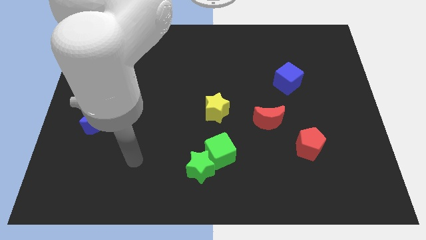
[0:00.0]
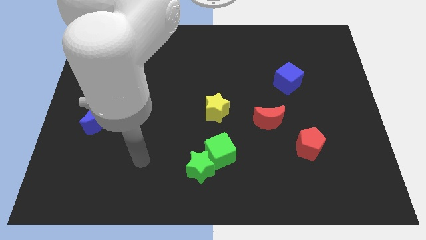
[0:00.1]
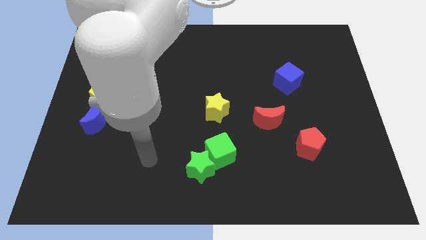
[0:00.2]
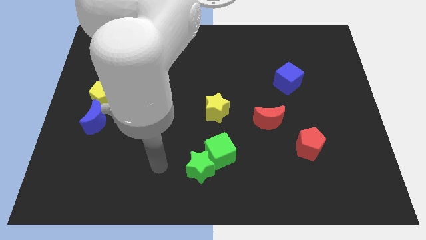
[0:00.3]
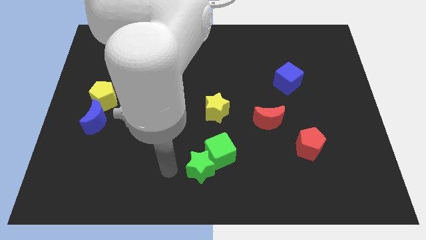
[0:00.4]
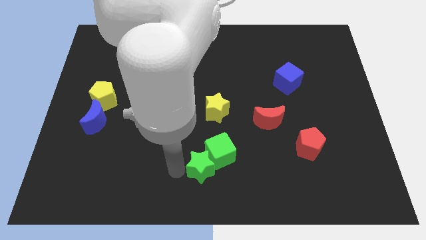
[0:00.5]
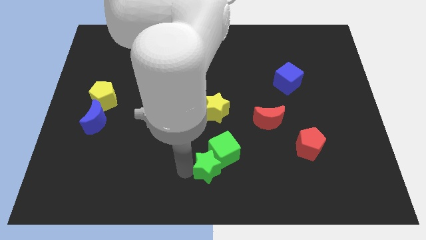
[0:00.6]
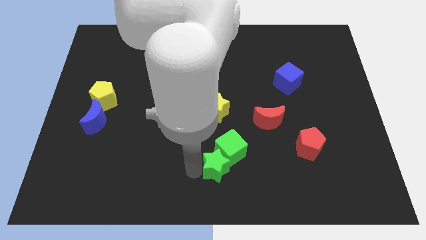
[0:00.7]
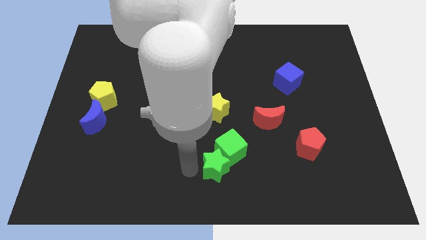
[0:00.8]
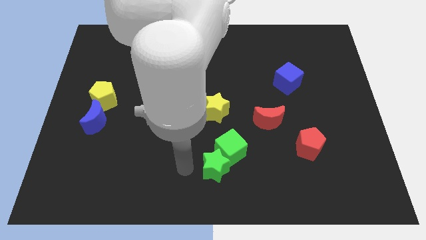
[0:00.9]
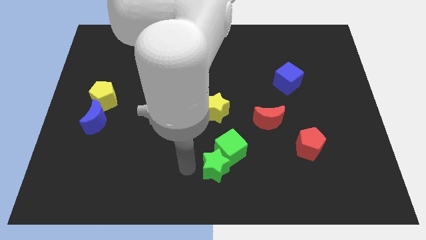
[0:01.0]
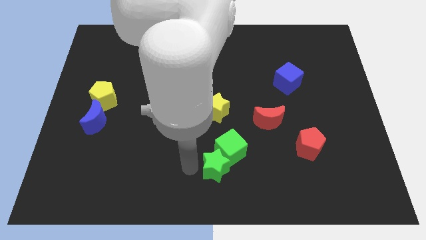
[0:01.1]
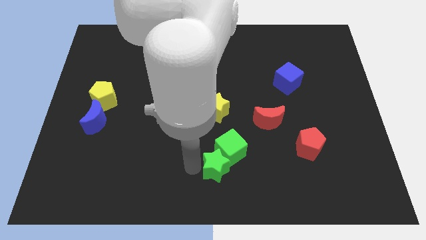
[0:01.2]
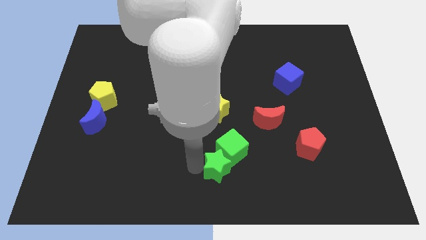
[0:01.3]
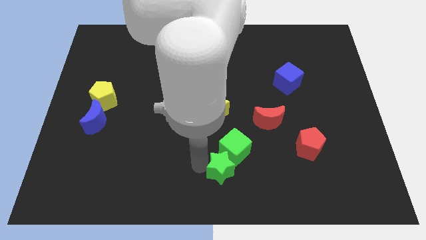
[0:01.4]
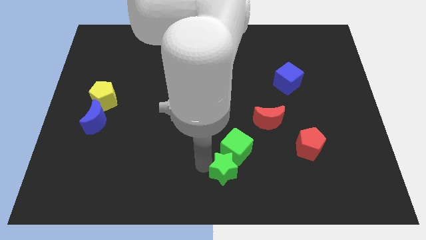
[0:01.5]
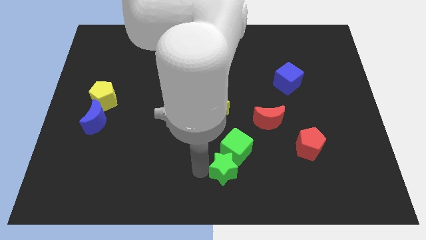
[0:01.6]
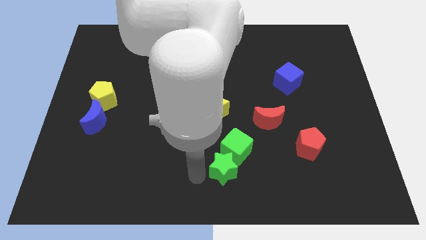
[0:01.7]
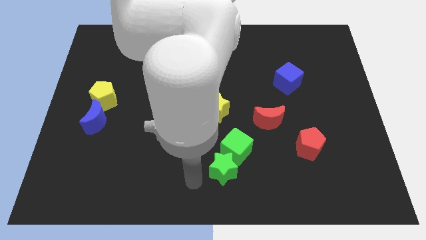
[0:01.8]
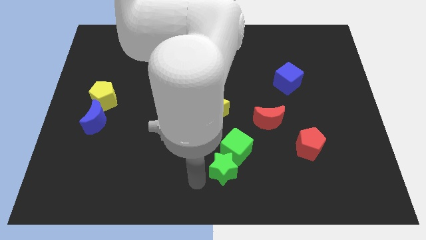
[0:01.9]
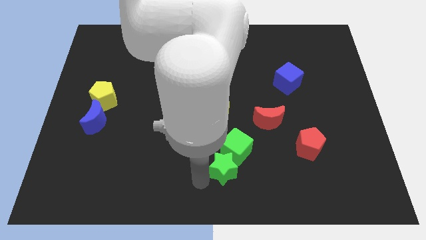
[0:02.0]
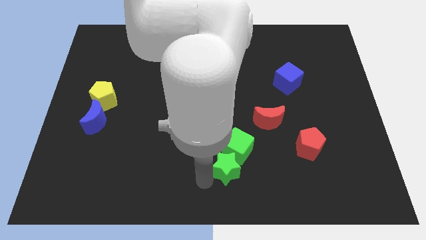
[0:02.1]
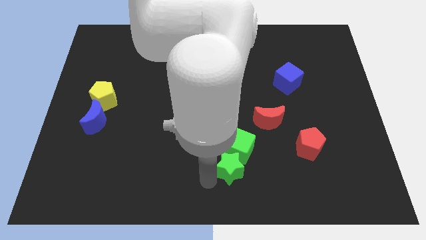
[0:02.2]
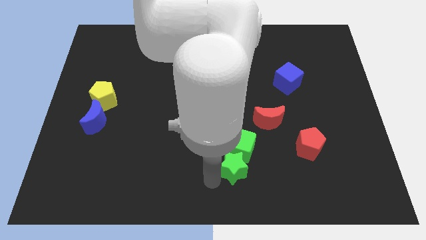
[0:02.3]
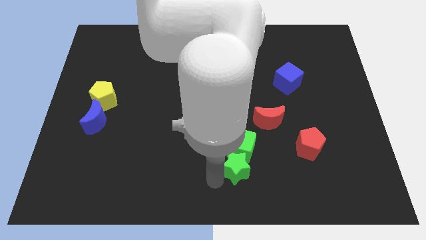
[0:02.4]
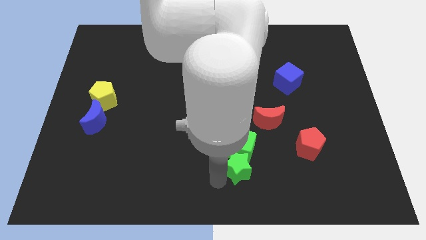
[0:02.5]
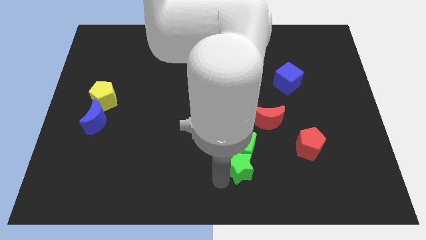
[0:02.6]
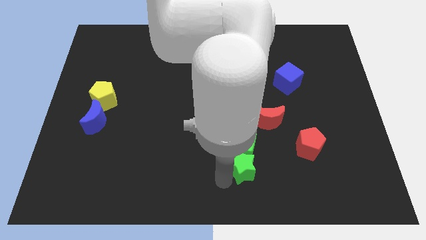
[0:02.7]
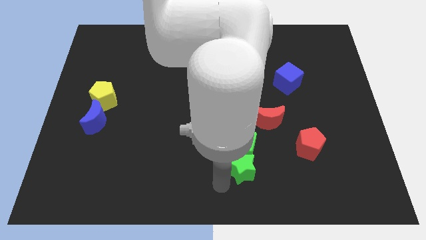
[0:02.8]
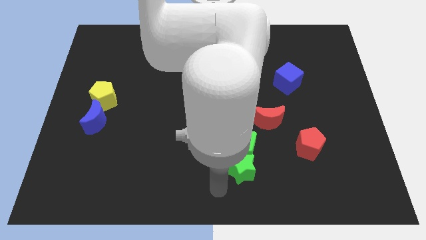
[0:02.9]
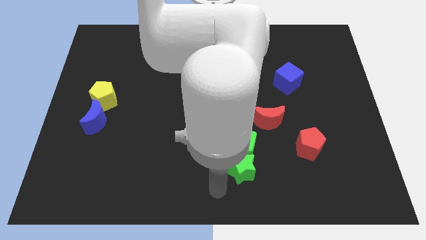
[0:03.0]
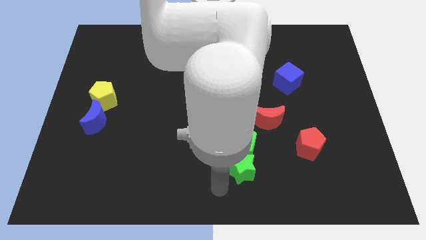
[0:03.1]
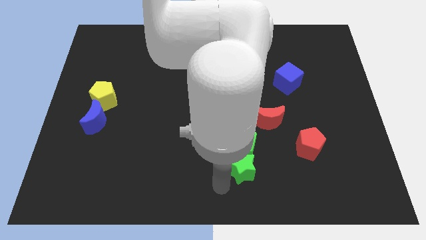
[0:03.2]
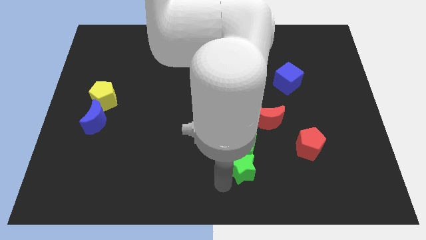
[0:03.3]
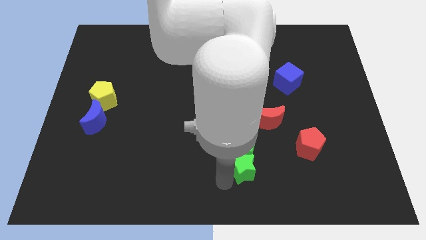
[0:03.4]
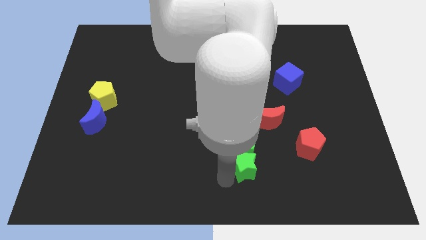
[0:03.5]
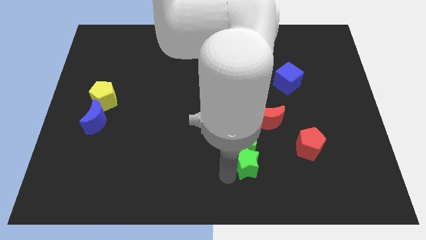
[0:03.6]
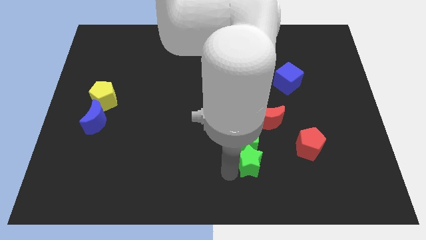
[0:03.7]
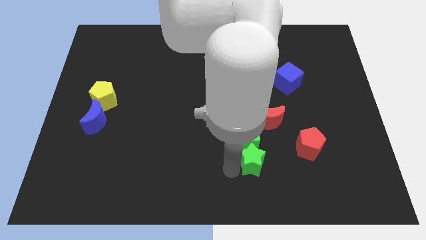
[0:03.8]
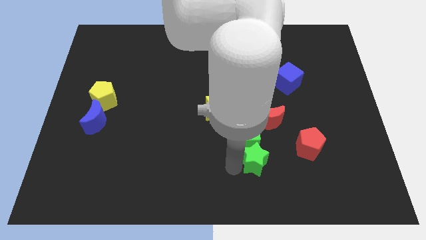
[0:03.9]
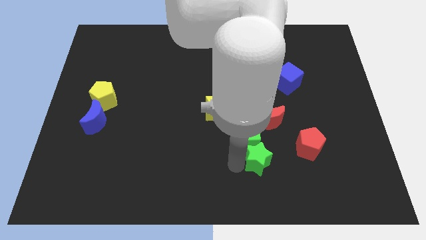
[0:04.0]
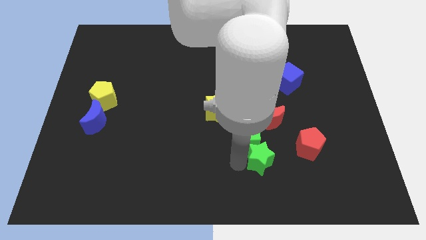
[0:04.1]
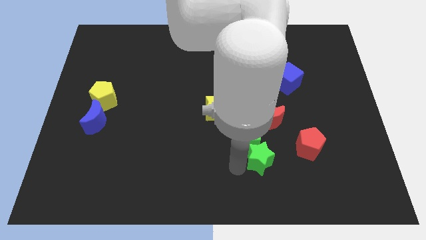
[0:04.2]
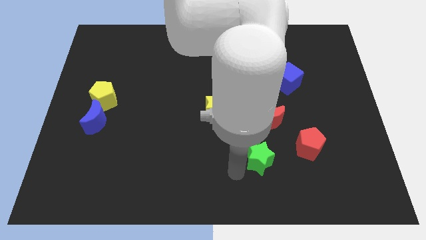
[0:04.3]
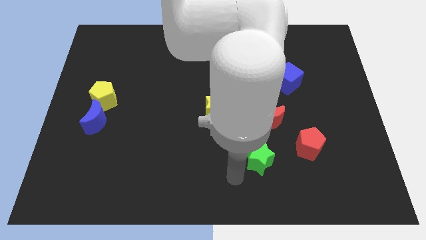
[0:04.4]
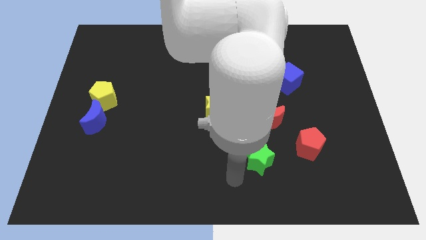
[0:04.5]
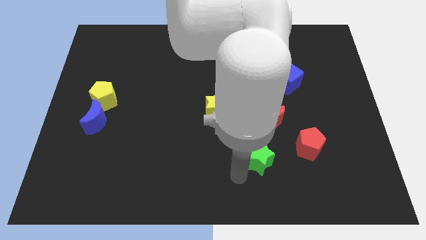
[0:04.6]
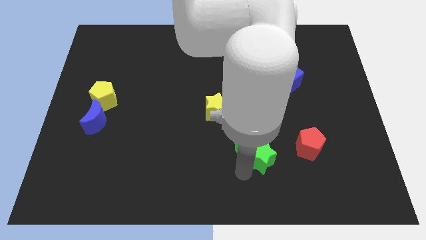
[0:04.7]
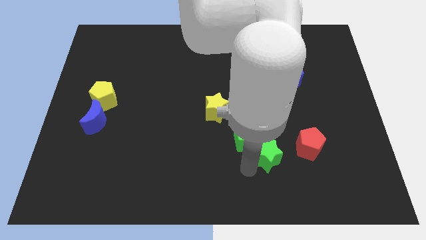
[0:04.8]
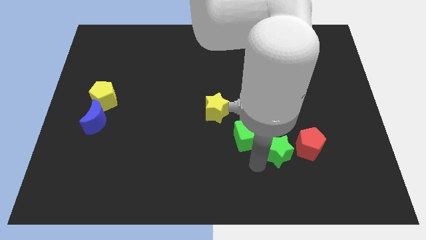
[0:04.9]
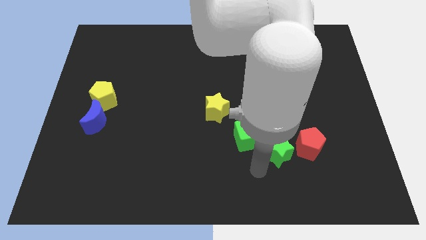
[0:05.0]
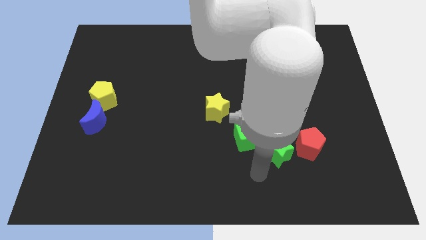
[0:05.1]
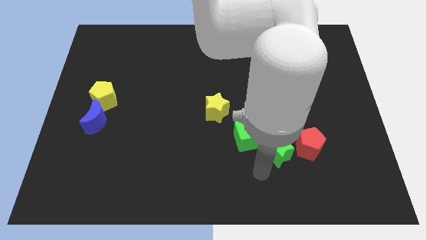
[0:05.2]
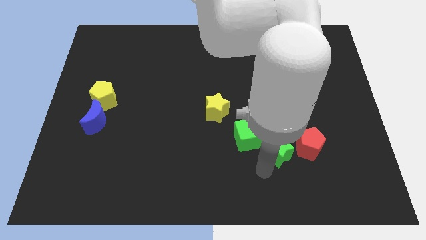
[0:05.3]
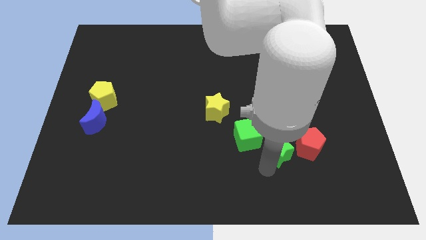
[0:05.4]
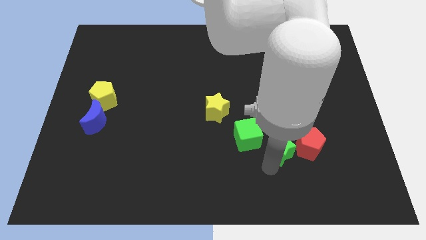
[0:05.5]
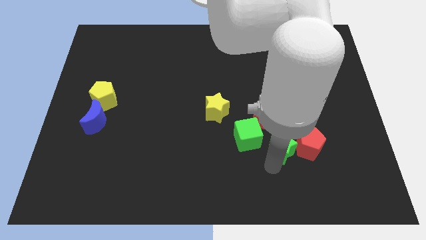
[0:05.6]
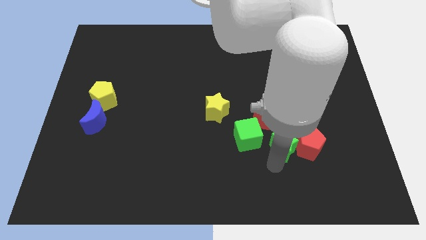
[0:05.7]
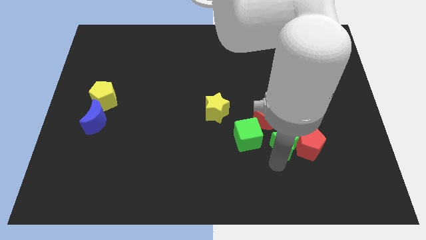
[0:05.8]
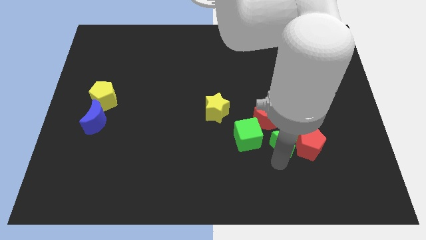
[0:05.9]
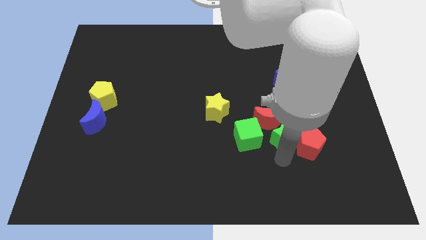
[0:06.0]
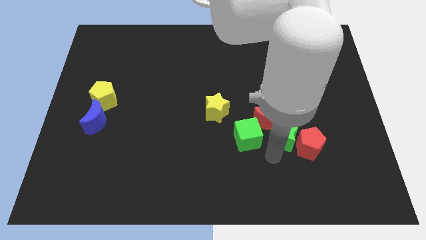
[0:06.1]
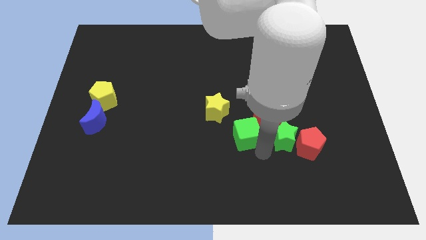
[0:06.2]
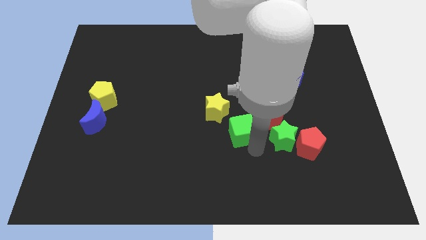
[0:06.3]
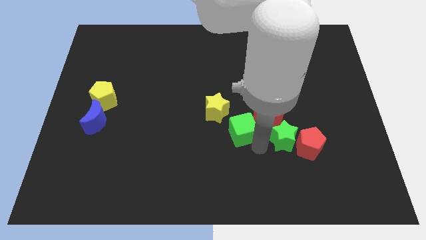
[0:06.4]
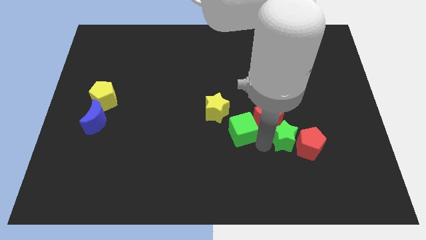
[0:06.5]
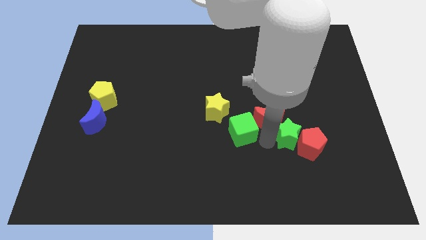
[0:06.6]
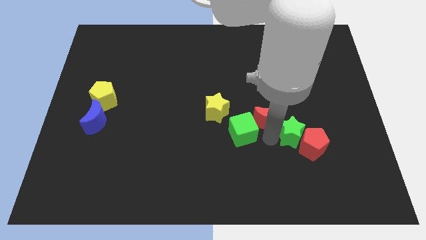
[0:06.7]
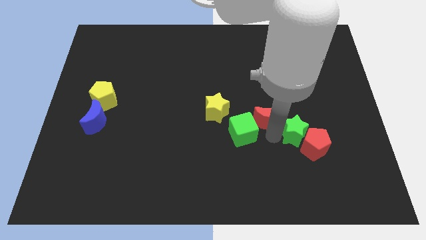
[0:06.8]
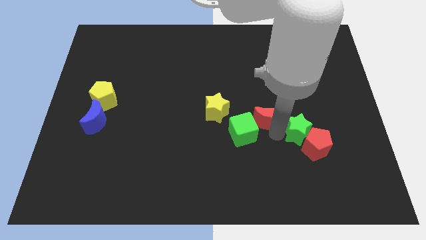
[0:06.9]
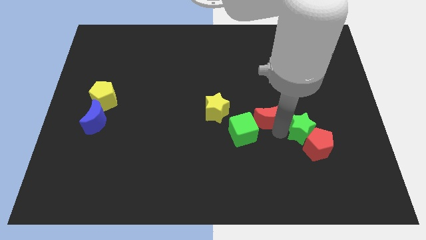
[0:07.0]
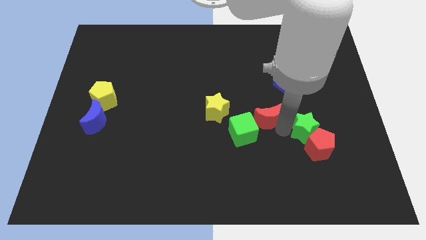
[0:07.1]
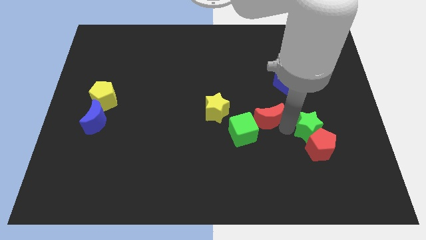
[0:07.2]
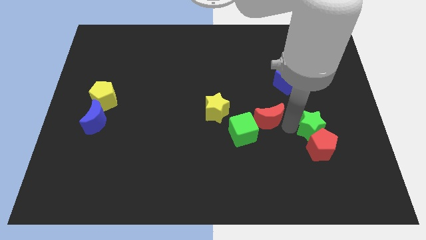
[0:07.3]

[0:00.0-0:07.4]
move the green star diagonally up and to the right of the red pentagon
